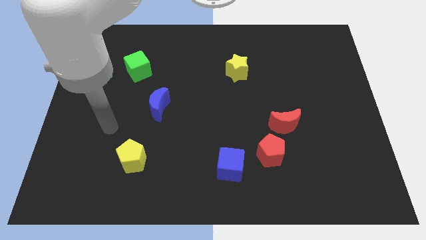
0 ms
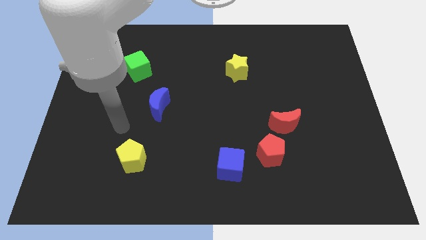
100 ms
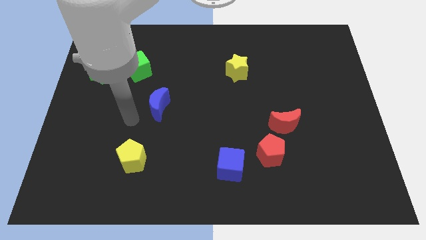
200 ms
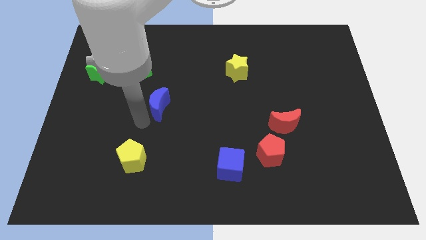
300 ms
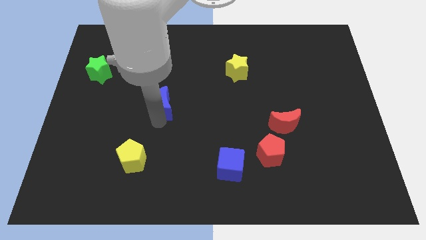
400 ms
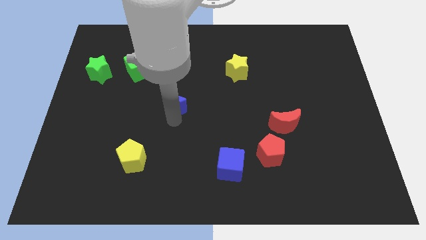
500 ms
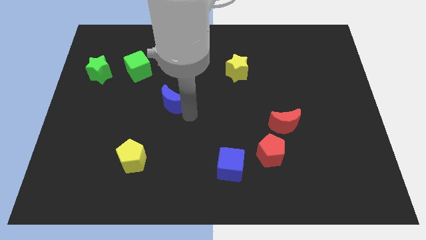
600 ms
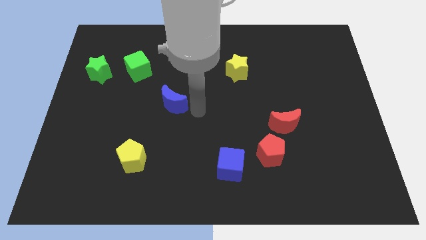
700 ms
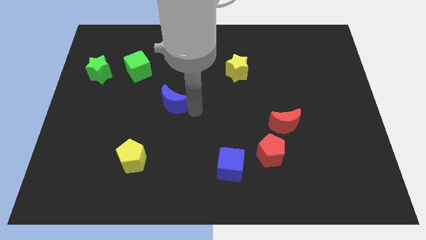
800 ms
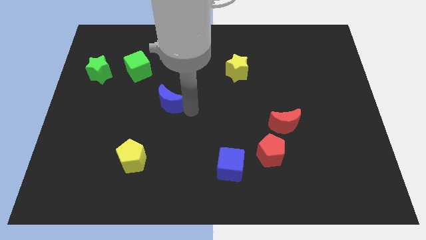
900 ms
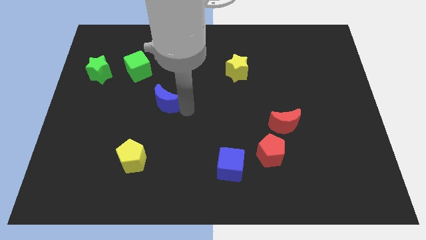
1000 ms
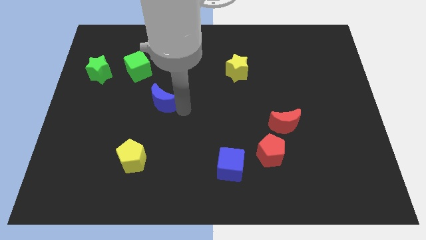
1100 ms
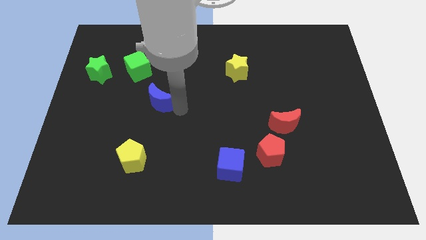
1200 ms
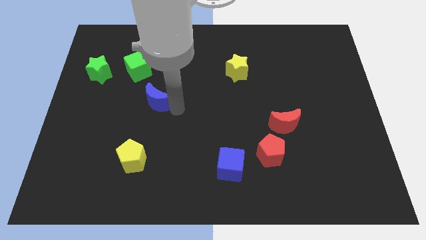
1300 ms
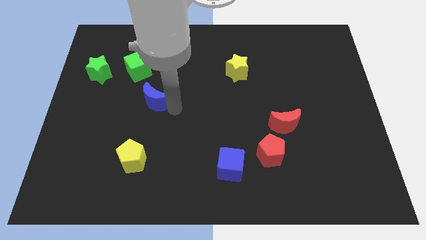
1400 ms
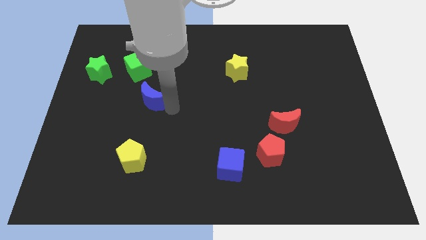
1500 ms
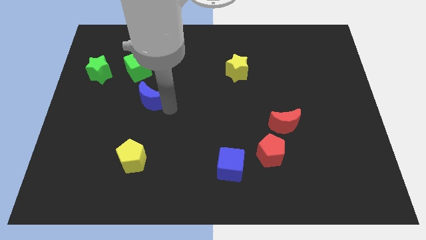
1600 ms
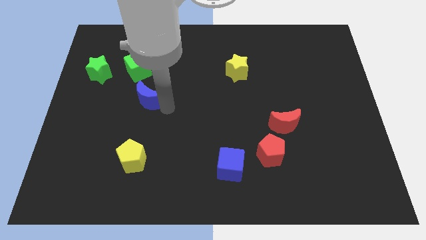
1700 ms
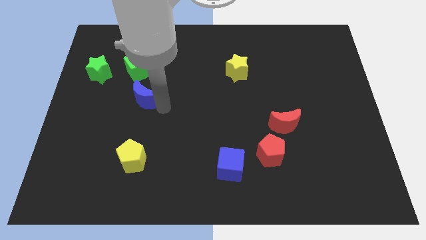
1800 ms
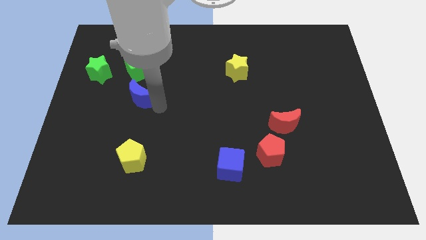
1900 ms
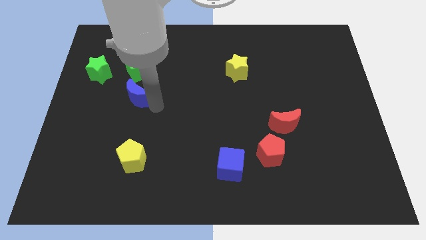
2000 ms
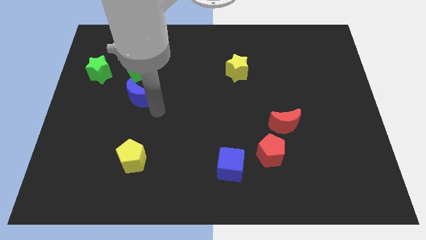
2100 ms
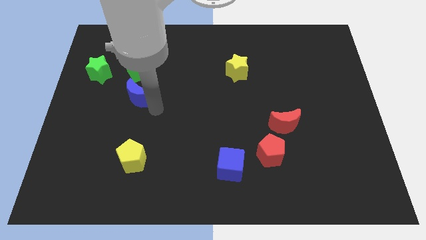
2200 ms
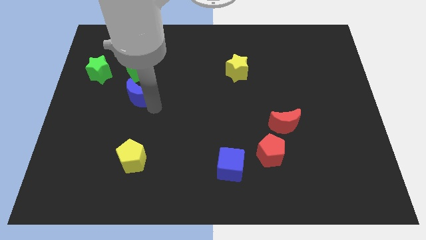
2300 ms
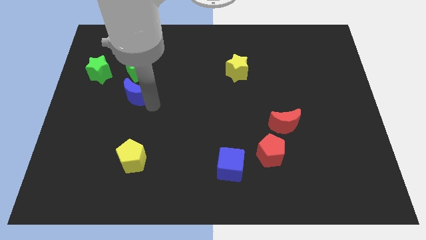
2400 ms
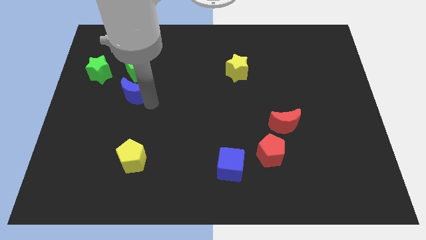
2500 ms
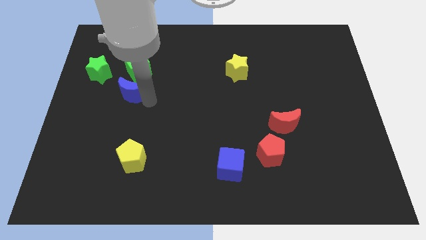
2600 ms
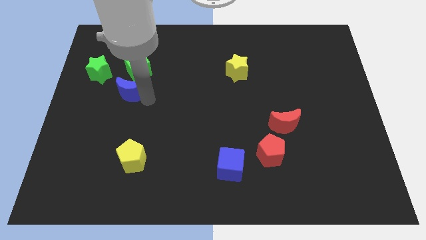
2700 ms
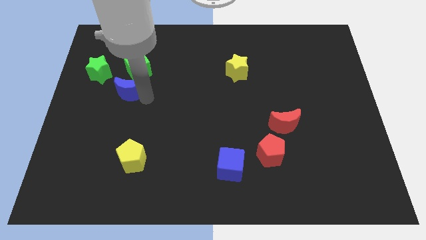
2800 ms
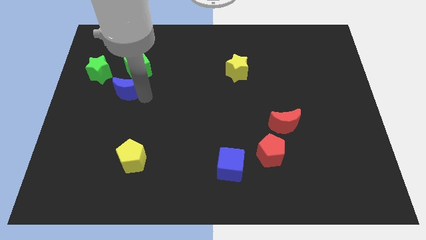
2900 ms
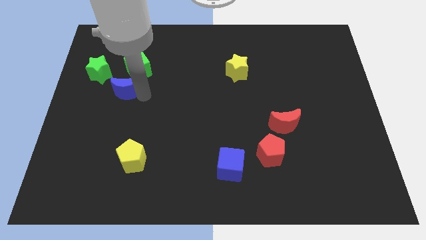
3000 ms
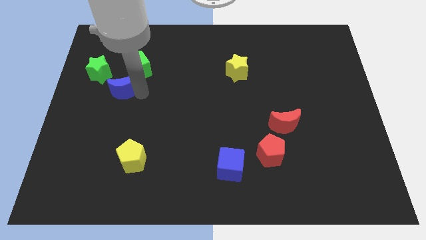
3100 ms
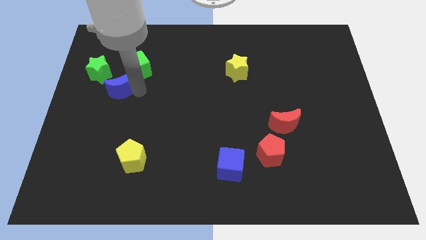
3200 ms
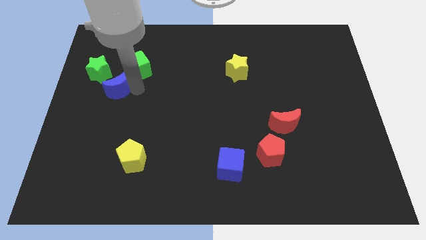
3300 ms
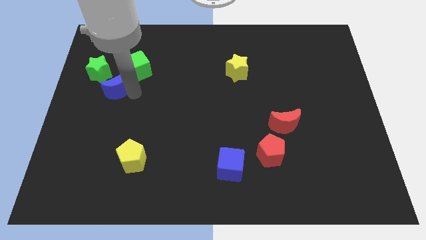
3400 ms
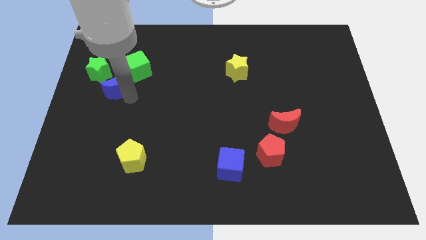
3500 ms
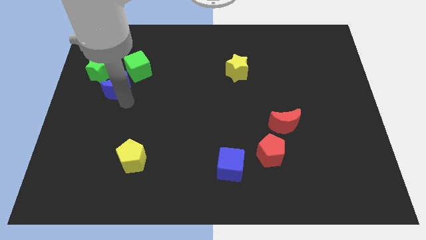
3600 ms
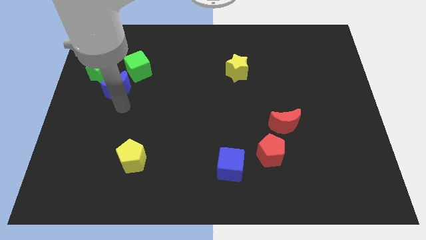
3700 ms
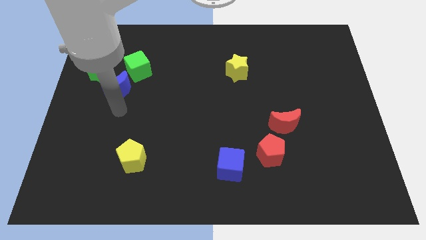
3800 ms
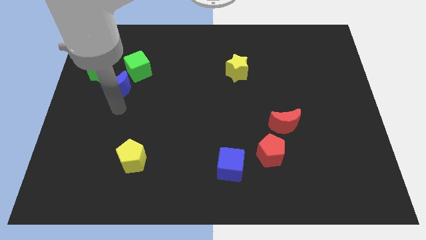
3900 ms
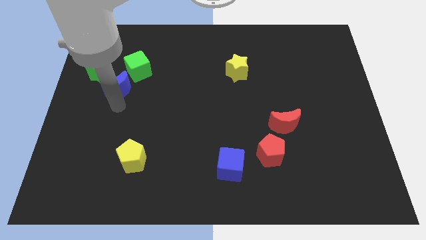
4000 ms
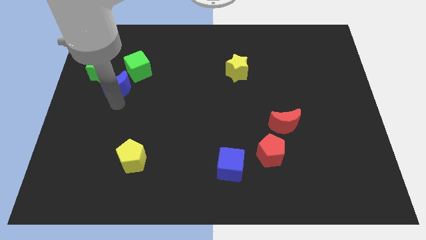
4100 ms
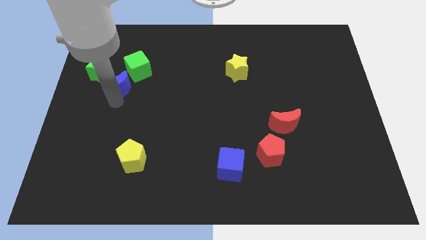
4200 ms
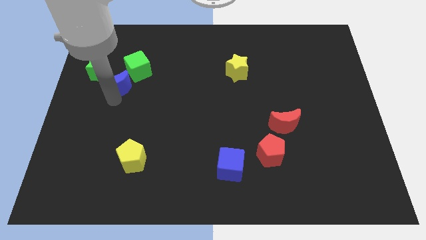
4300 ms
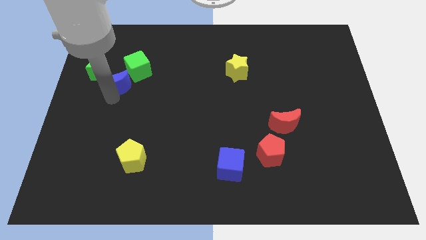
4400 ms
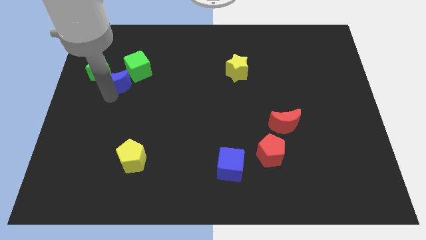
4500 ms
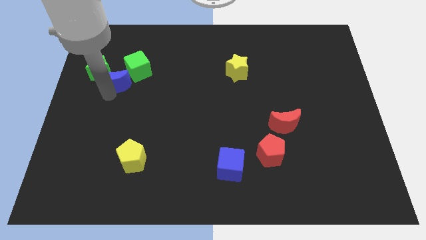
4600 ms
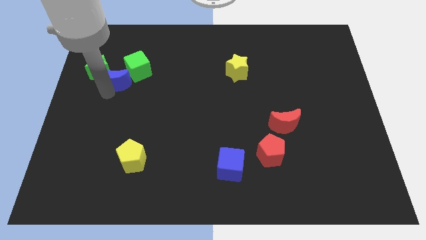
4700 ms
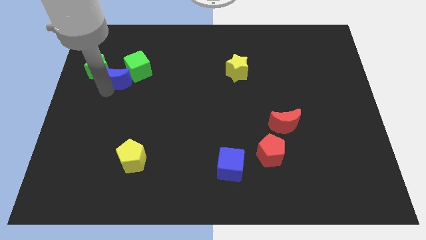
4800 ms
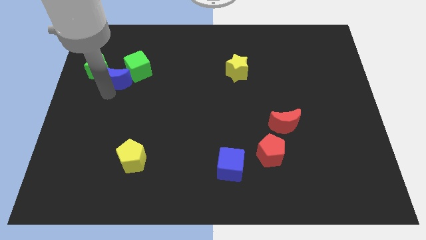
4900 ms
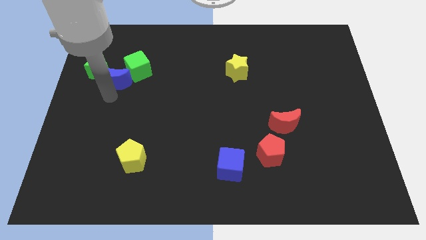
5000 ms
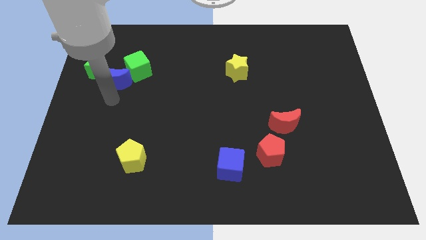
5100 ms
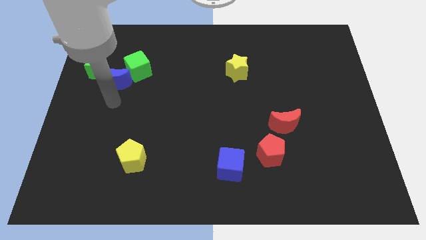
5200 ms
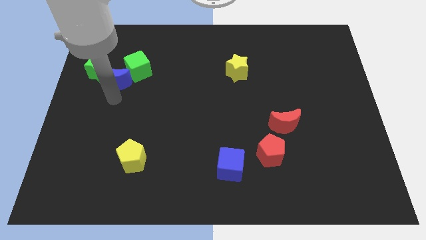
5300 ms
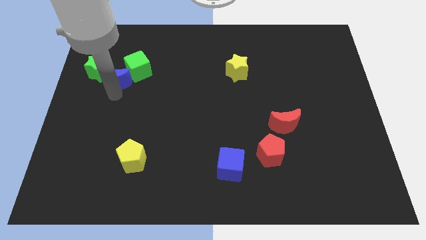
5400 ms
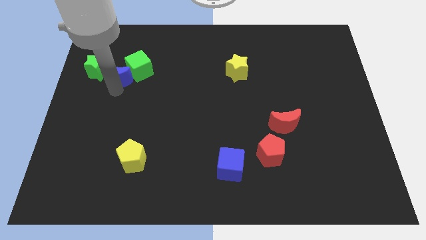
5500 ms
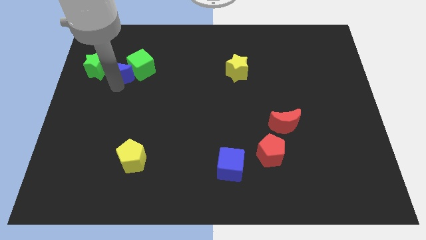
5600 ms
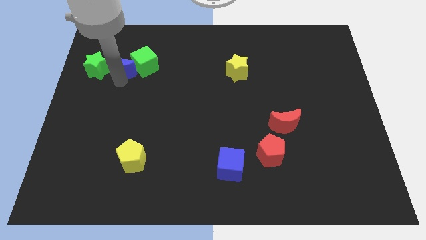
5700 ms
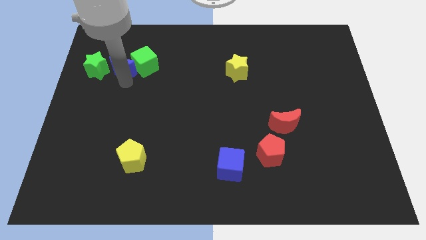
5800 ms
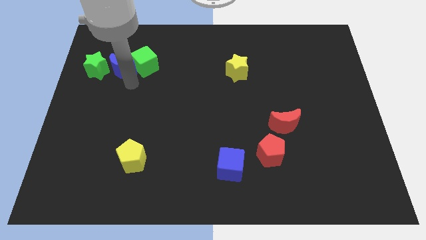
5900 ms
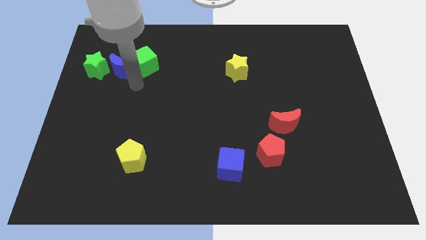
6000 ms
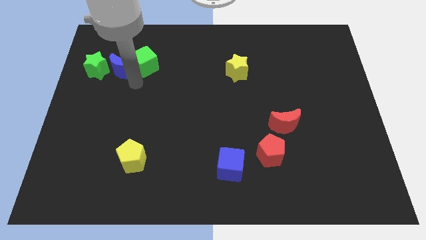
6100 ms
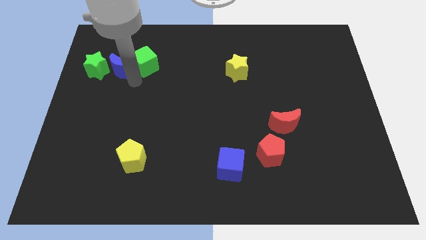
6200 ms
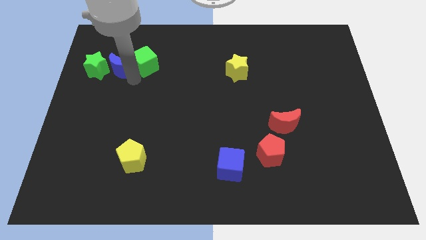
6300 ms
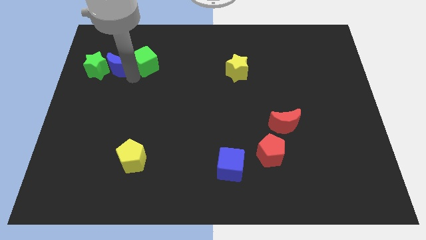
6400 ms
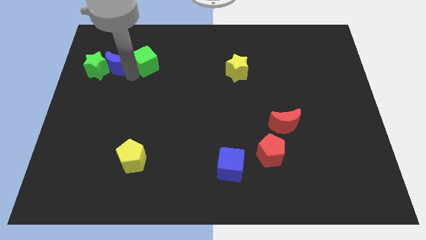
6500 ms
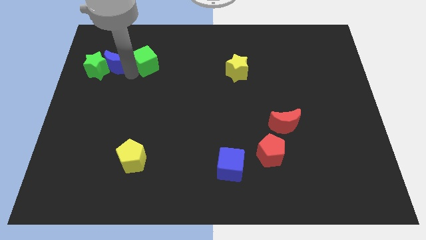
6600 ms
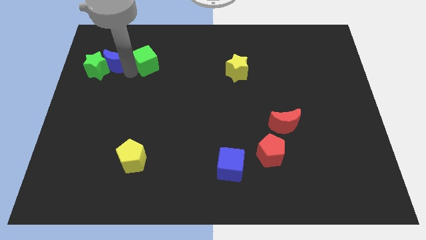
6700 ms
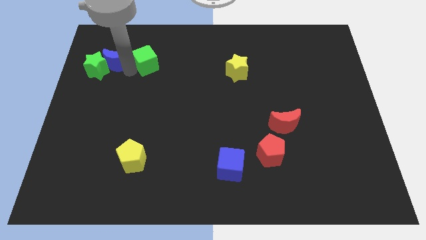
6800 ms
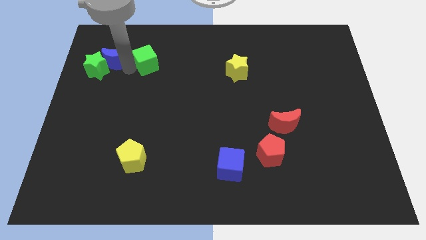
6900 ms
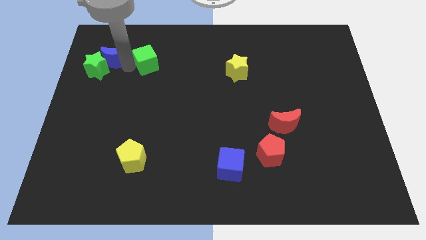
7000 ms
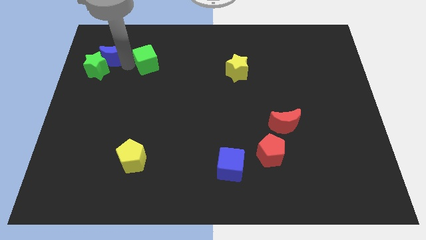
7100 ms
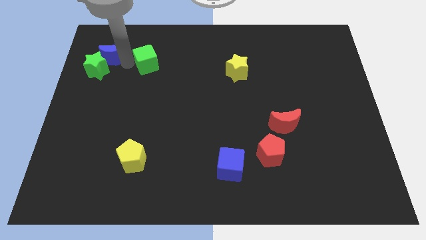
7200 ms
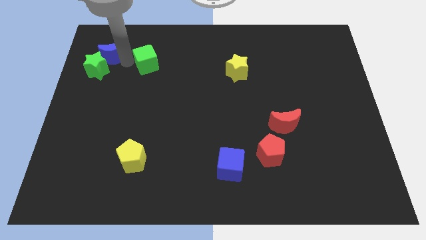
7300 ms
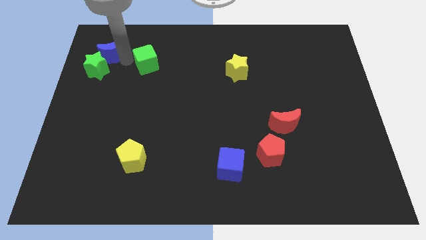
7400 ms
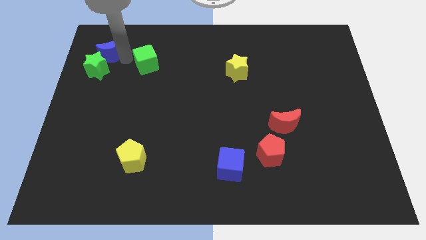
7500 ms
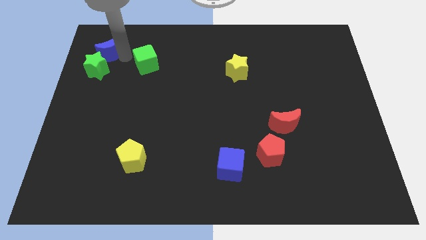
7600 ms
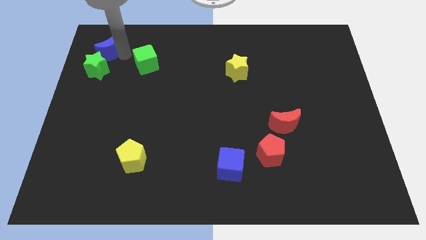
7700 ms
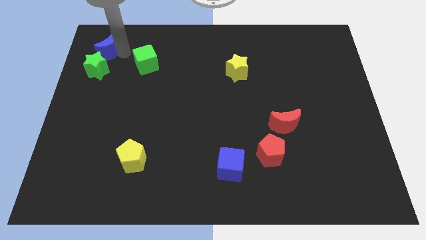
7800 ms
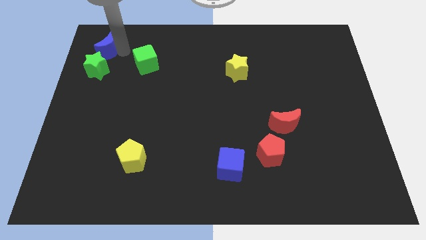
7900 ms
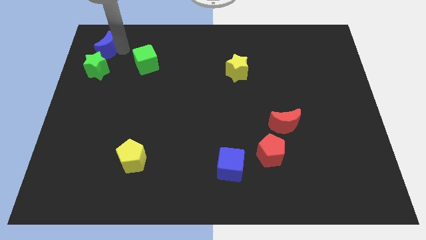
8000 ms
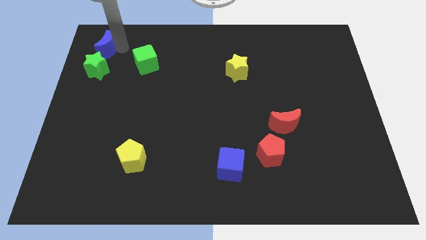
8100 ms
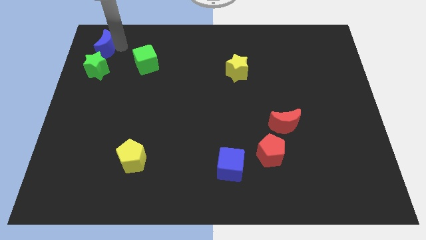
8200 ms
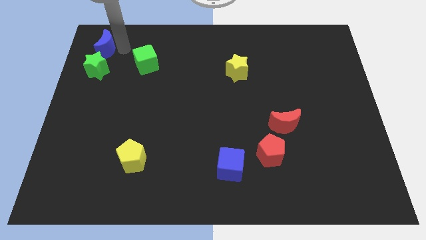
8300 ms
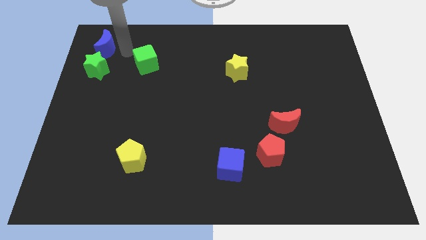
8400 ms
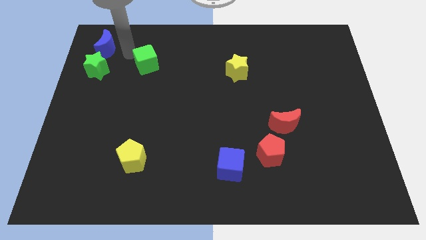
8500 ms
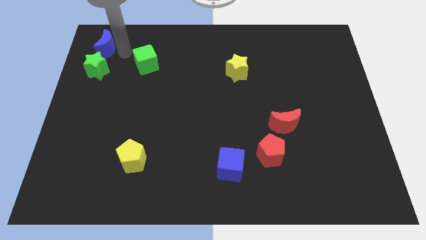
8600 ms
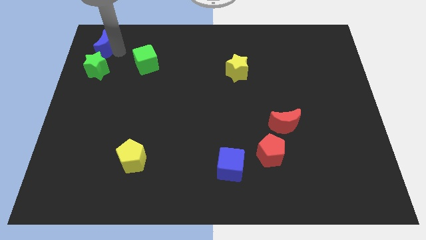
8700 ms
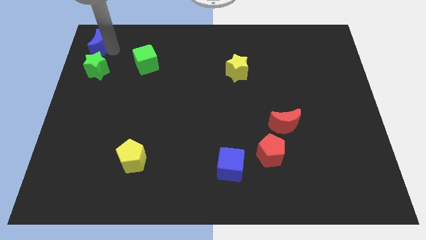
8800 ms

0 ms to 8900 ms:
push the blue moon to the top left of the board
